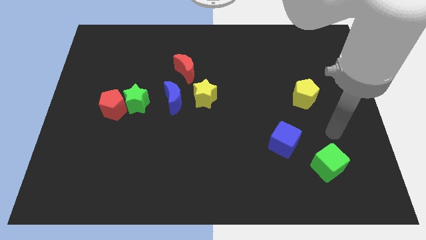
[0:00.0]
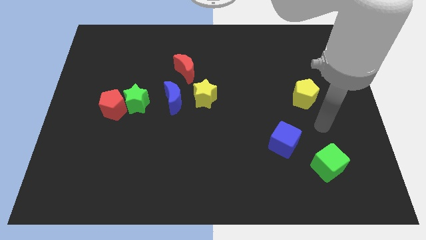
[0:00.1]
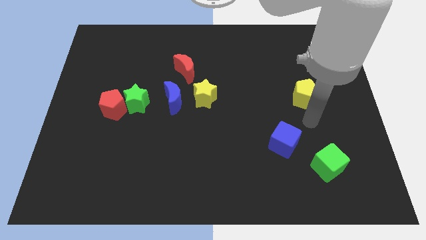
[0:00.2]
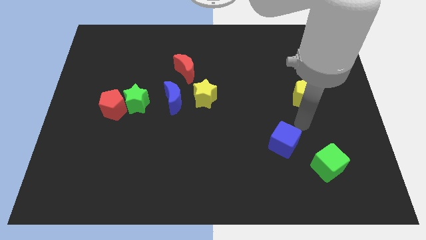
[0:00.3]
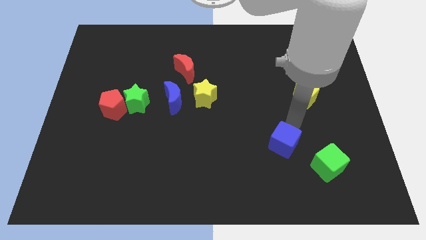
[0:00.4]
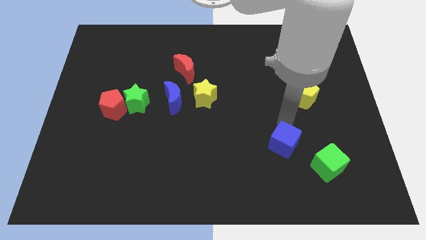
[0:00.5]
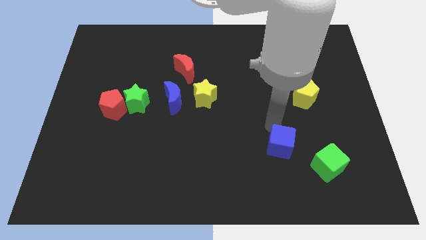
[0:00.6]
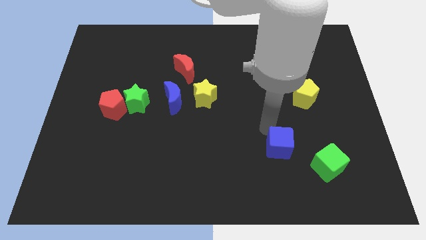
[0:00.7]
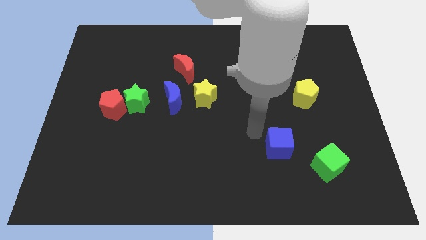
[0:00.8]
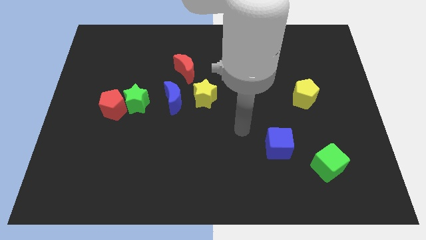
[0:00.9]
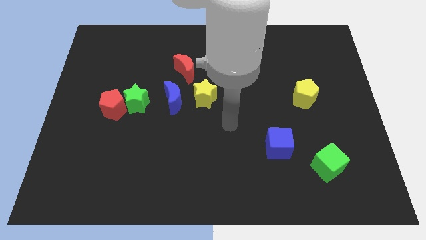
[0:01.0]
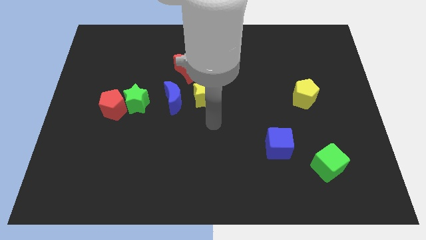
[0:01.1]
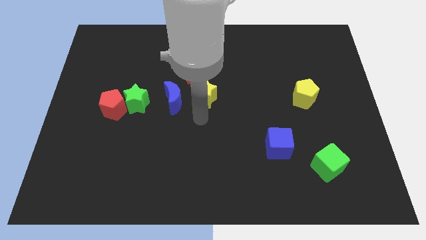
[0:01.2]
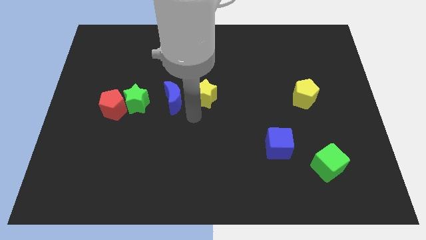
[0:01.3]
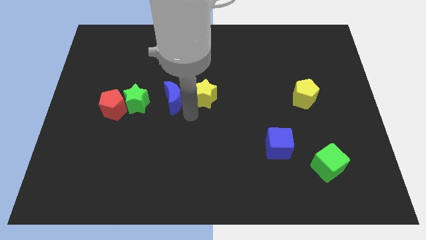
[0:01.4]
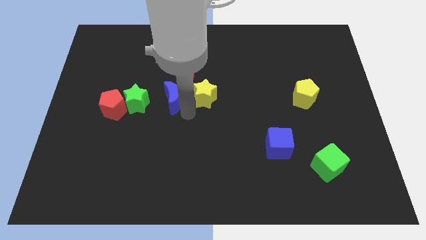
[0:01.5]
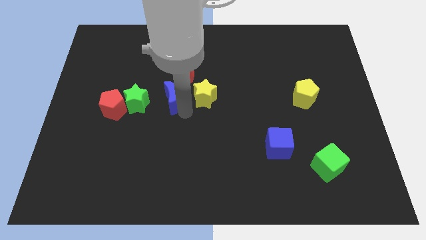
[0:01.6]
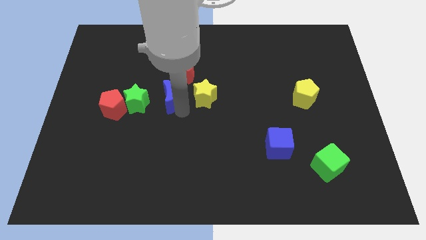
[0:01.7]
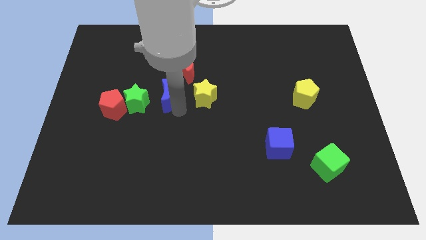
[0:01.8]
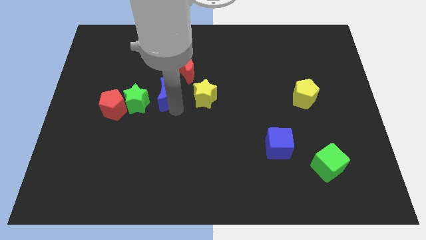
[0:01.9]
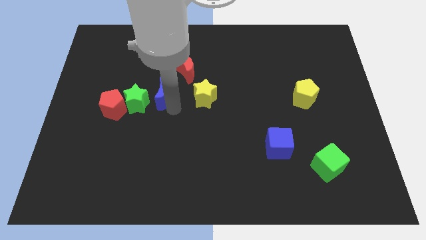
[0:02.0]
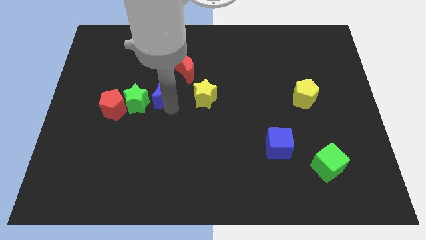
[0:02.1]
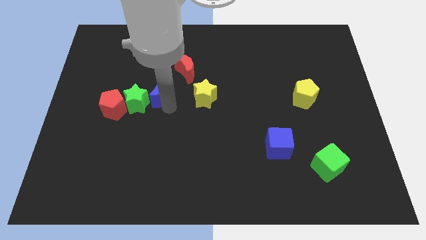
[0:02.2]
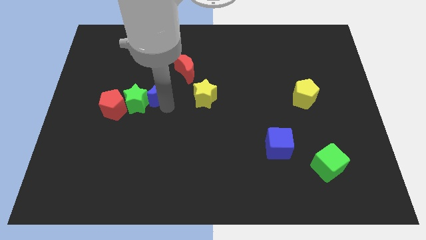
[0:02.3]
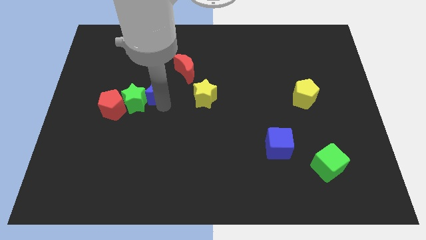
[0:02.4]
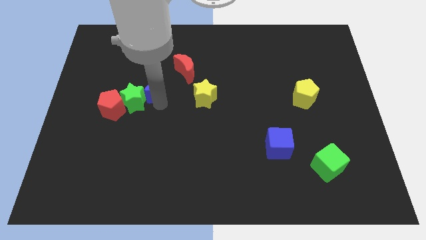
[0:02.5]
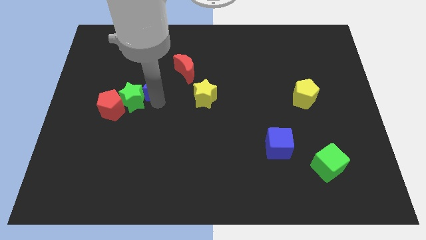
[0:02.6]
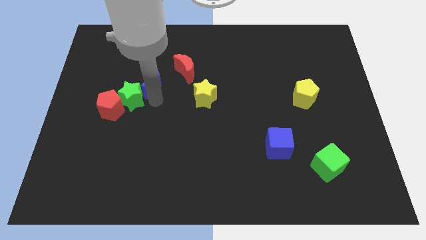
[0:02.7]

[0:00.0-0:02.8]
slide the blue moon up and left diagonally slightly

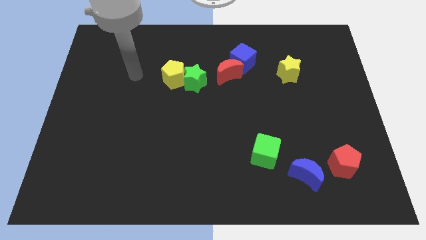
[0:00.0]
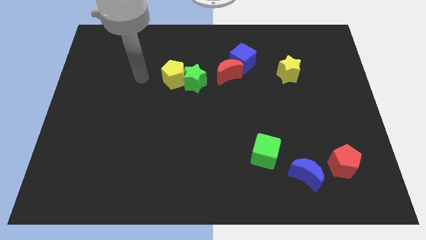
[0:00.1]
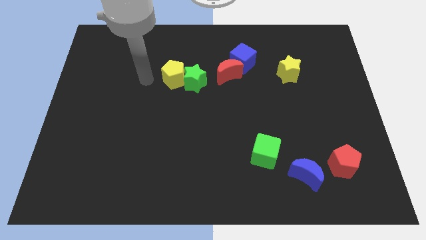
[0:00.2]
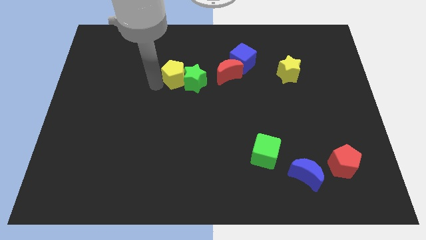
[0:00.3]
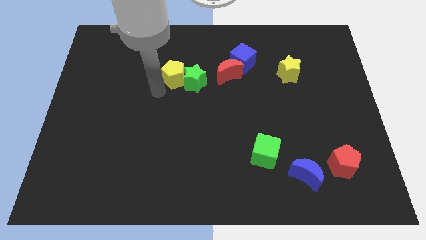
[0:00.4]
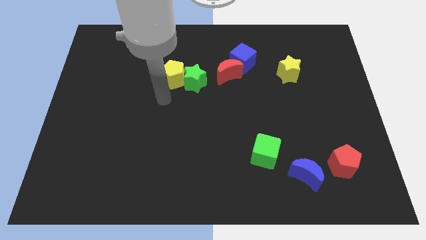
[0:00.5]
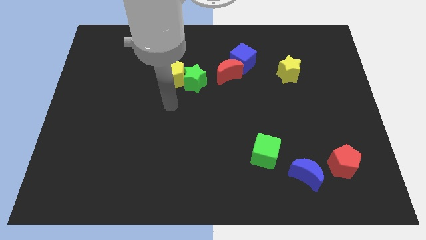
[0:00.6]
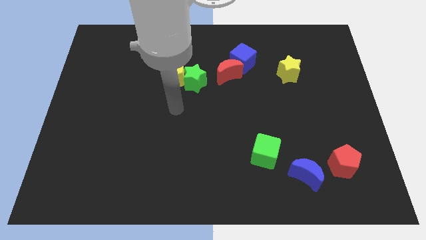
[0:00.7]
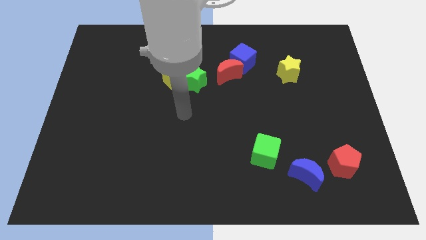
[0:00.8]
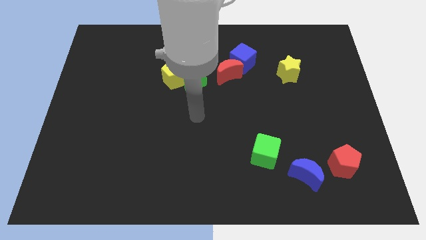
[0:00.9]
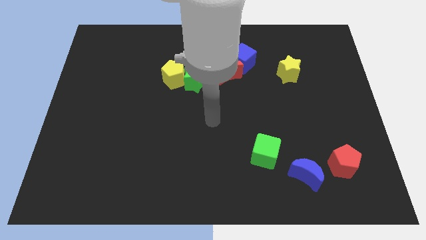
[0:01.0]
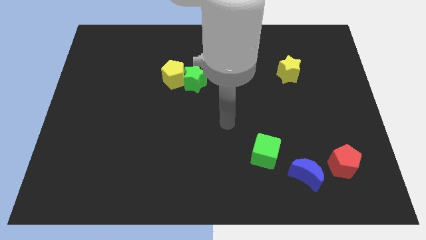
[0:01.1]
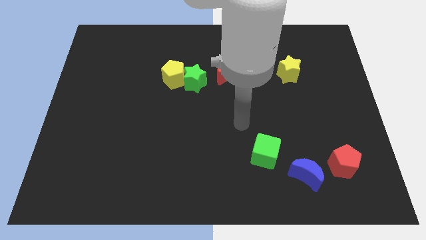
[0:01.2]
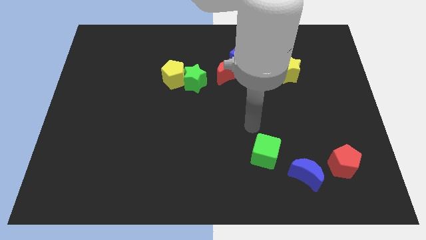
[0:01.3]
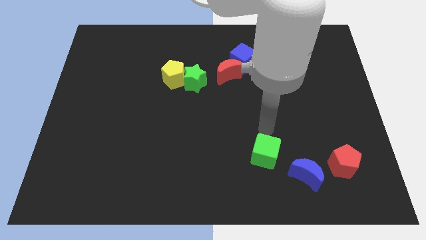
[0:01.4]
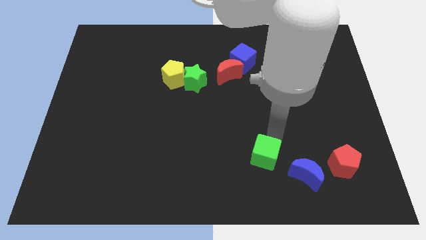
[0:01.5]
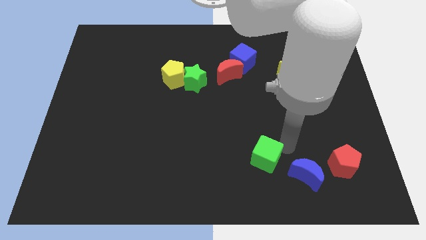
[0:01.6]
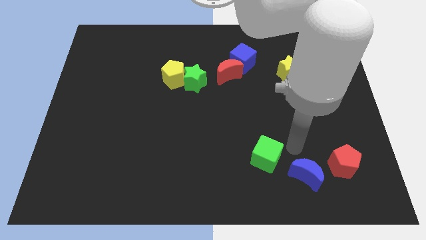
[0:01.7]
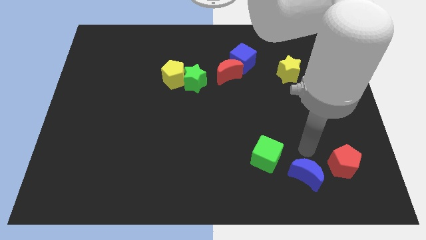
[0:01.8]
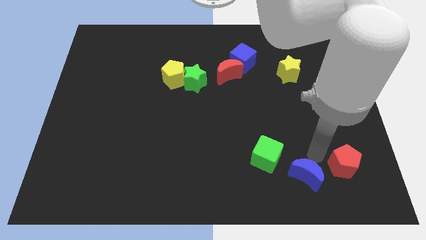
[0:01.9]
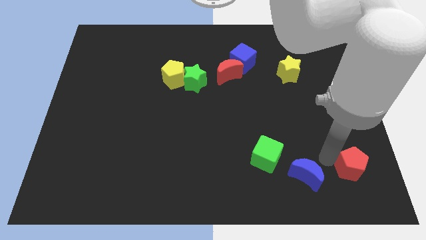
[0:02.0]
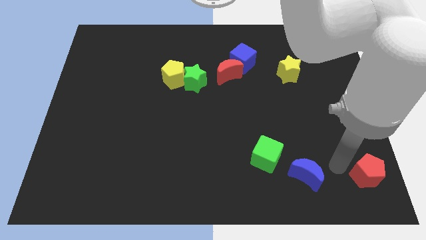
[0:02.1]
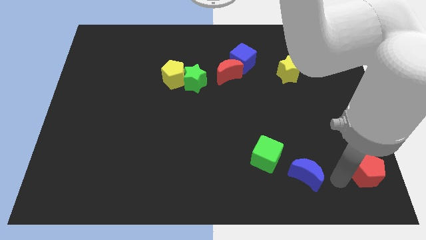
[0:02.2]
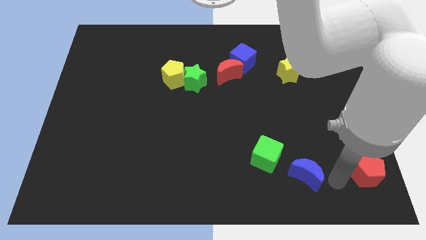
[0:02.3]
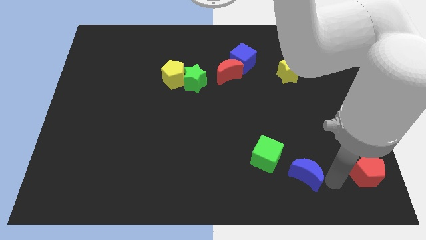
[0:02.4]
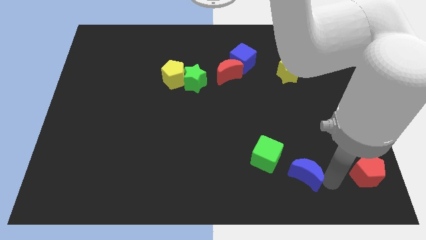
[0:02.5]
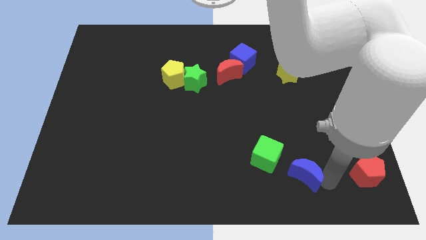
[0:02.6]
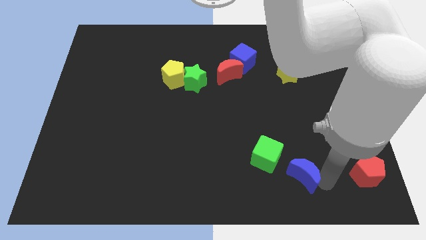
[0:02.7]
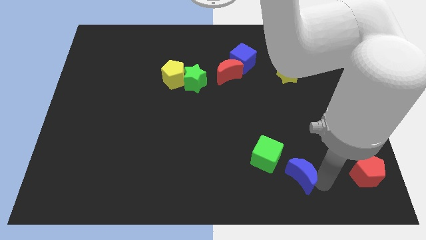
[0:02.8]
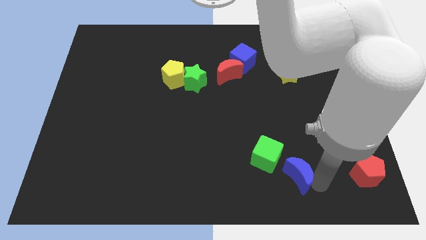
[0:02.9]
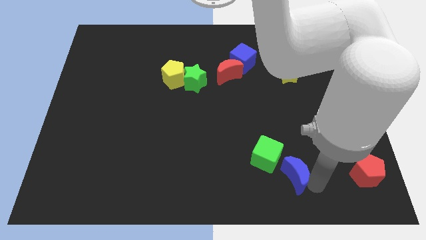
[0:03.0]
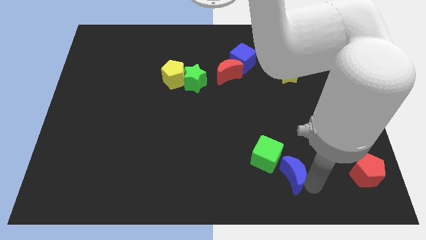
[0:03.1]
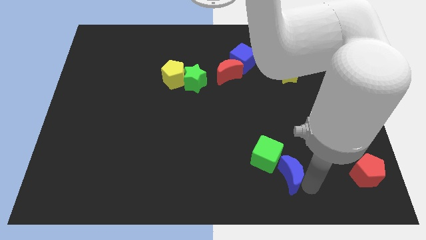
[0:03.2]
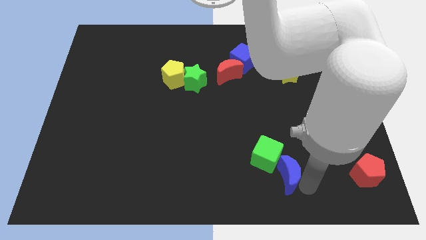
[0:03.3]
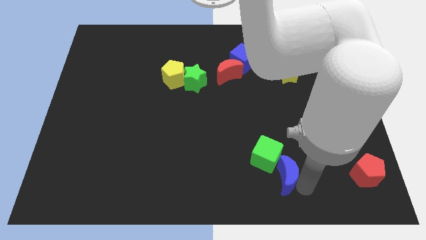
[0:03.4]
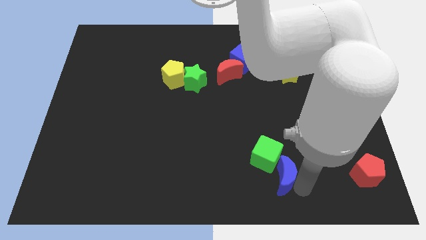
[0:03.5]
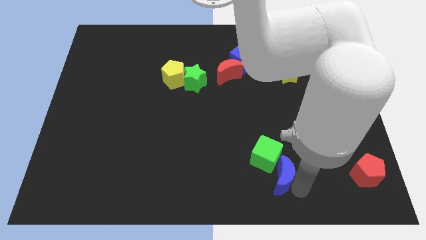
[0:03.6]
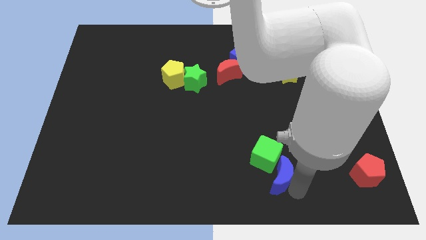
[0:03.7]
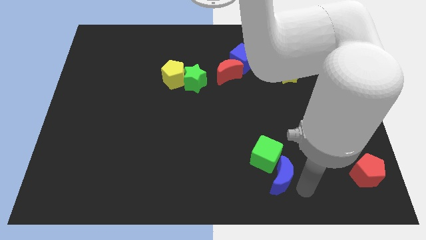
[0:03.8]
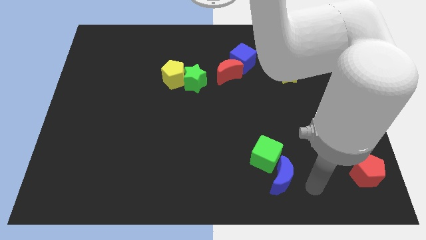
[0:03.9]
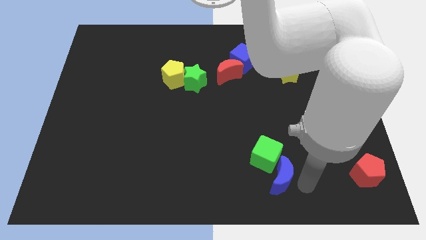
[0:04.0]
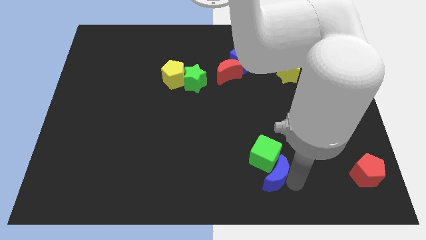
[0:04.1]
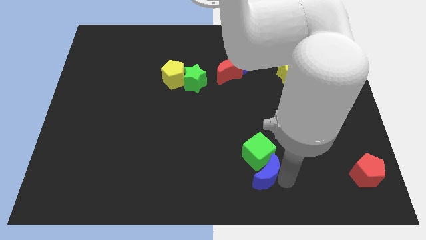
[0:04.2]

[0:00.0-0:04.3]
push the blue moon somewhat left

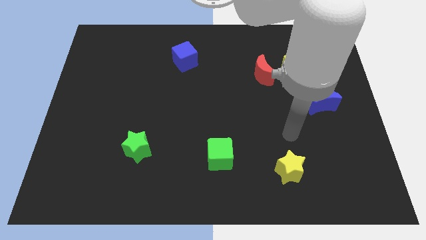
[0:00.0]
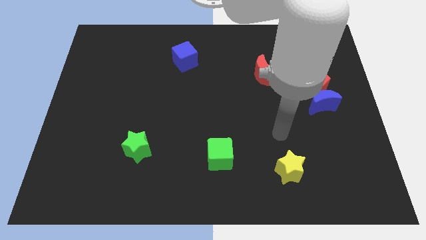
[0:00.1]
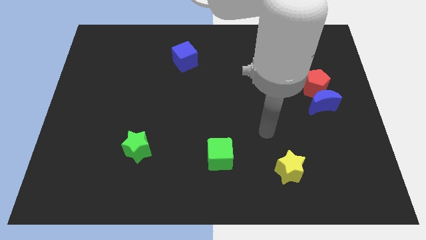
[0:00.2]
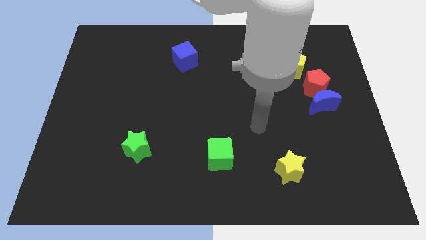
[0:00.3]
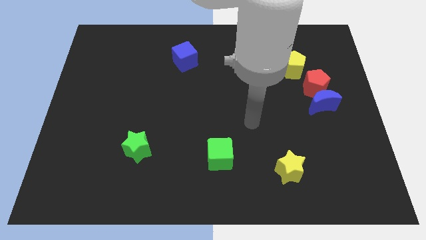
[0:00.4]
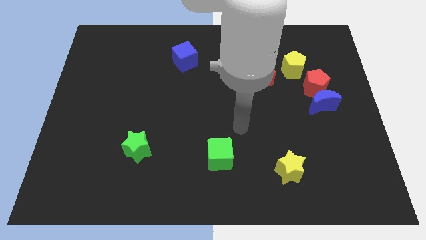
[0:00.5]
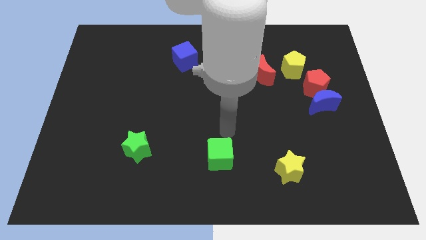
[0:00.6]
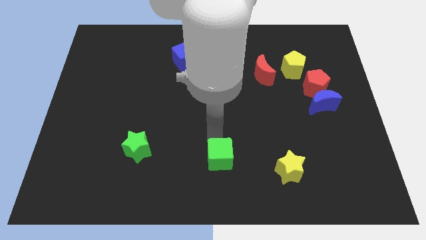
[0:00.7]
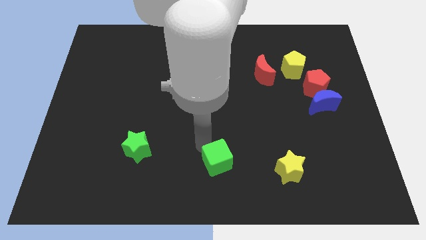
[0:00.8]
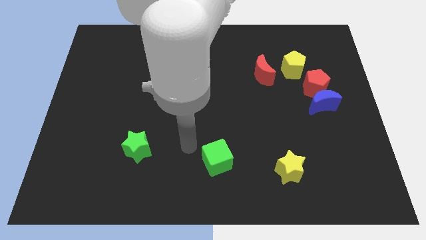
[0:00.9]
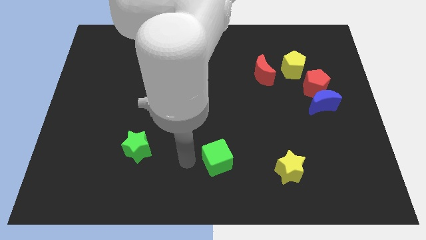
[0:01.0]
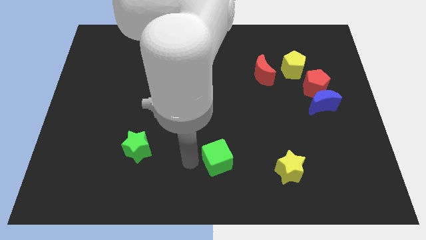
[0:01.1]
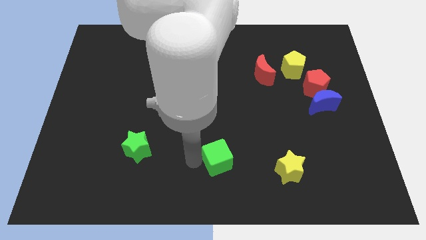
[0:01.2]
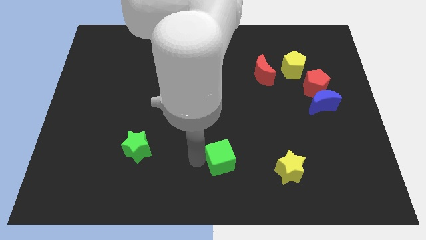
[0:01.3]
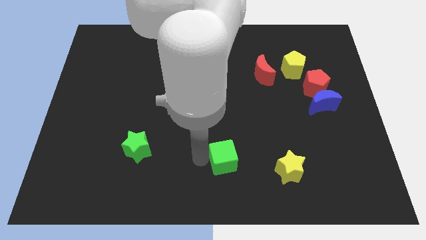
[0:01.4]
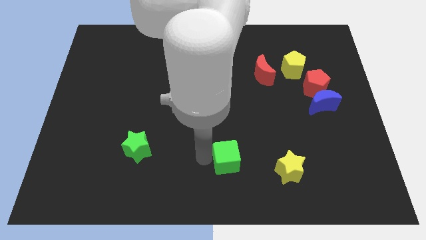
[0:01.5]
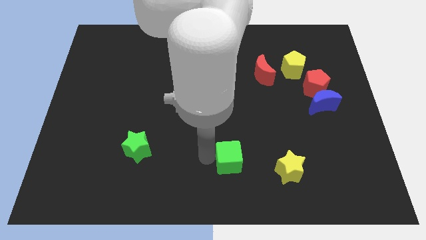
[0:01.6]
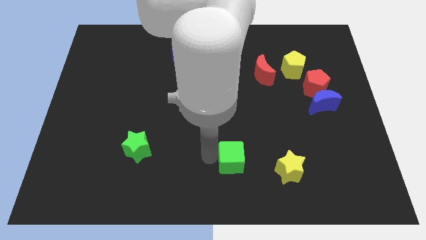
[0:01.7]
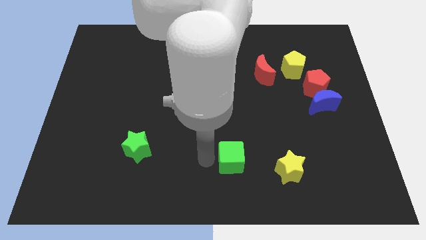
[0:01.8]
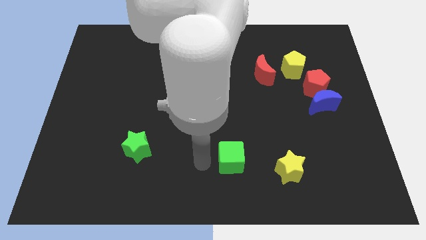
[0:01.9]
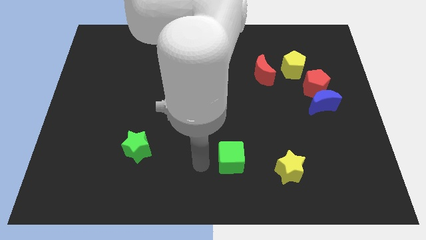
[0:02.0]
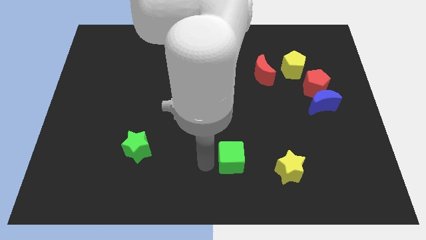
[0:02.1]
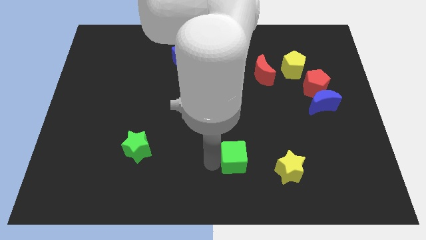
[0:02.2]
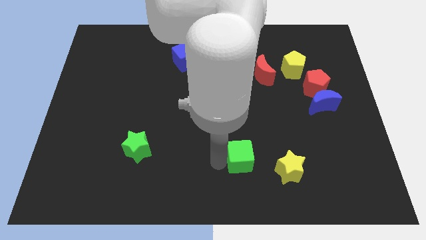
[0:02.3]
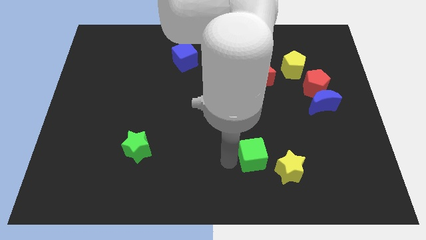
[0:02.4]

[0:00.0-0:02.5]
push the green cube to the right a bit
